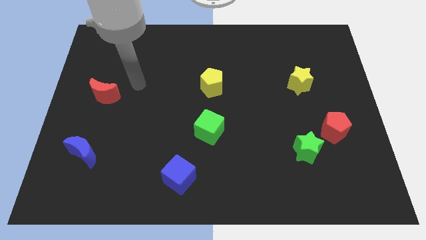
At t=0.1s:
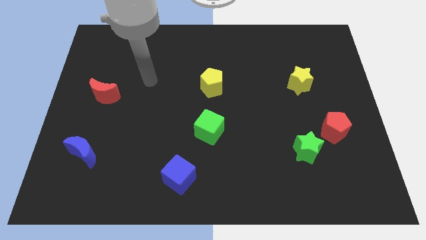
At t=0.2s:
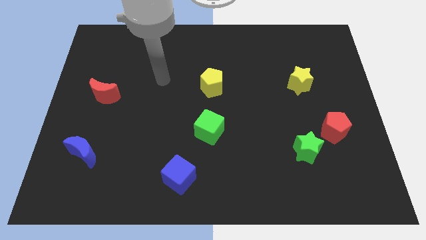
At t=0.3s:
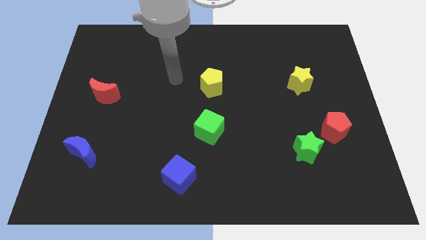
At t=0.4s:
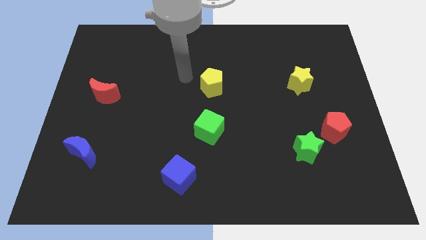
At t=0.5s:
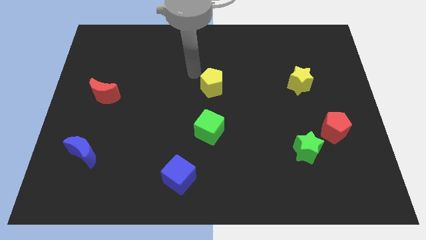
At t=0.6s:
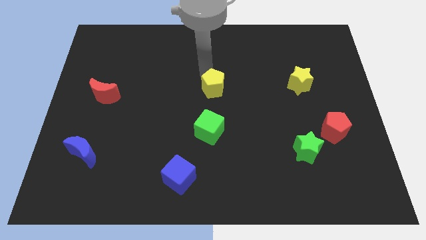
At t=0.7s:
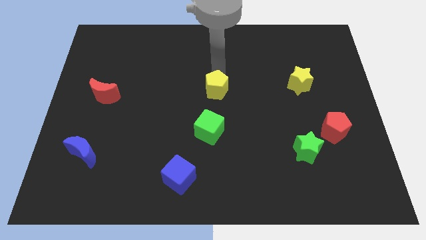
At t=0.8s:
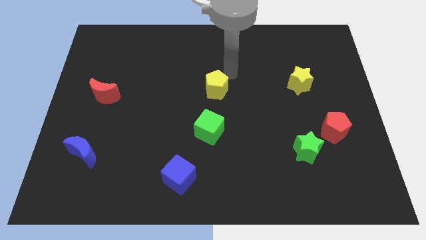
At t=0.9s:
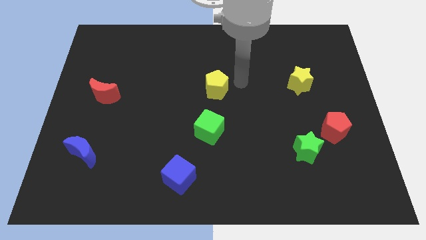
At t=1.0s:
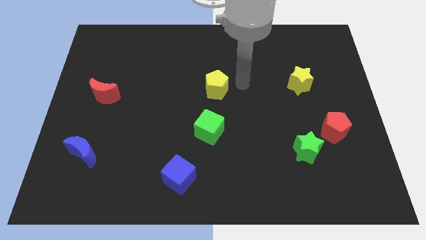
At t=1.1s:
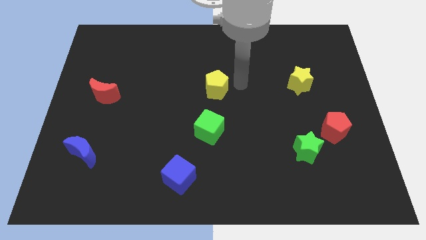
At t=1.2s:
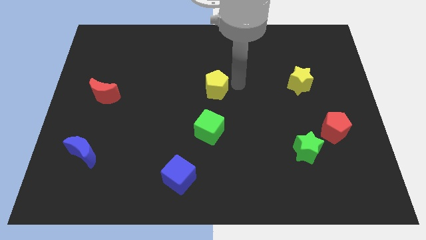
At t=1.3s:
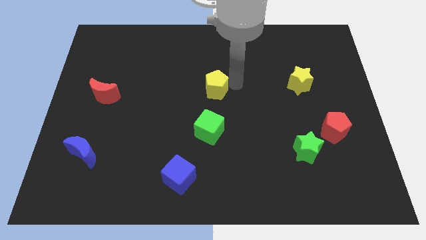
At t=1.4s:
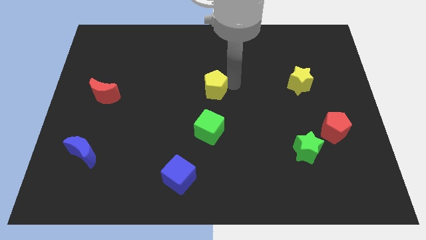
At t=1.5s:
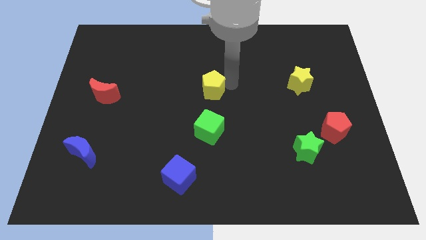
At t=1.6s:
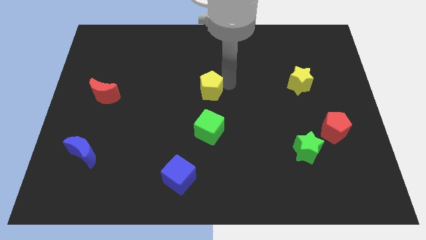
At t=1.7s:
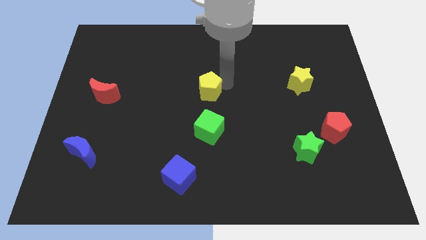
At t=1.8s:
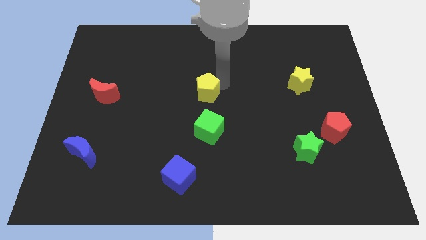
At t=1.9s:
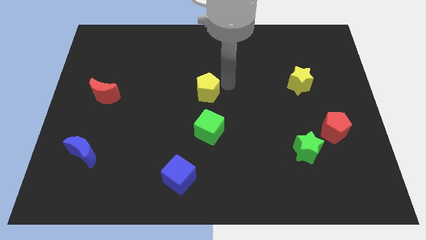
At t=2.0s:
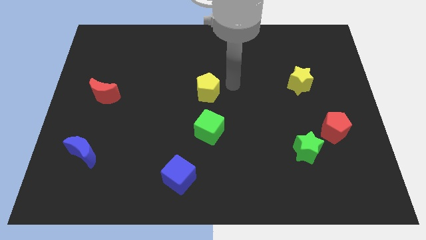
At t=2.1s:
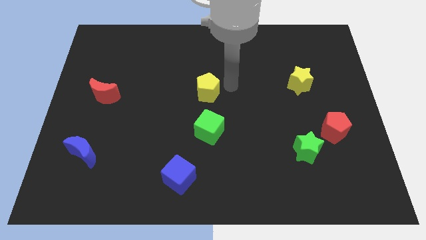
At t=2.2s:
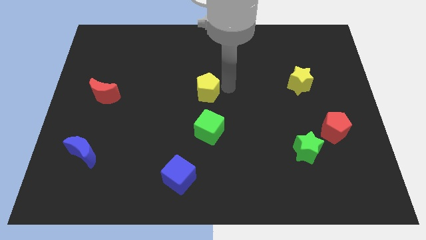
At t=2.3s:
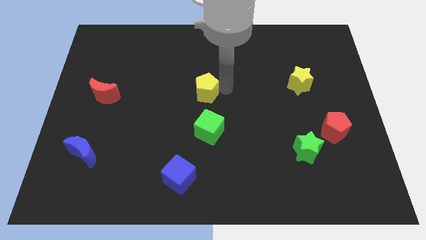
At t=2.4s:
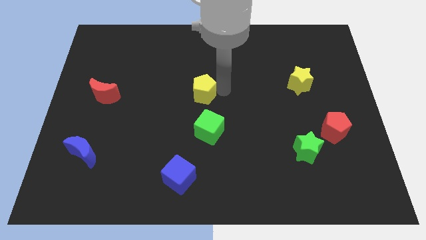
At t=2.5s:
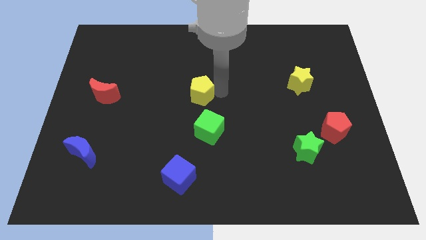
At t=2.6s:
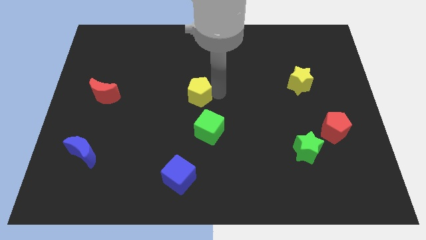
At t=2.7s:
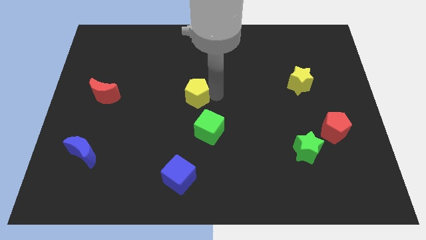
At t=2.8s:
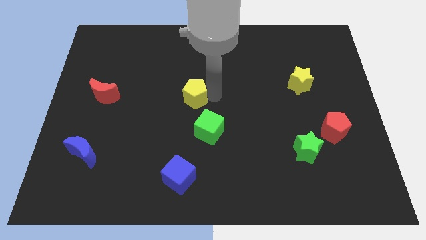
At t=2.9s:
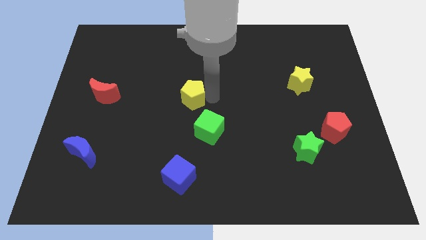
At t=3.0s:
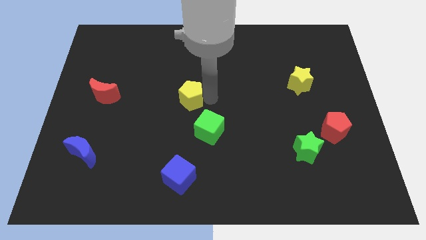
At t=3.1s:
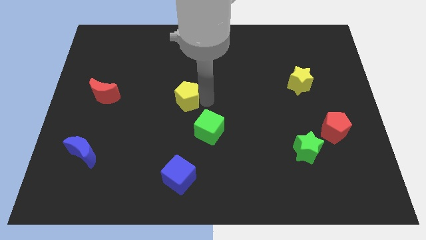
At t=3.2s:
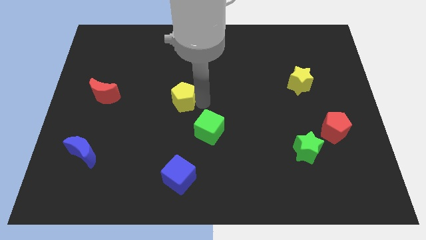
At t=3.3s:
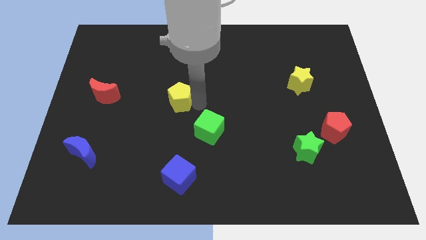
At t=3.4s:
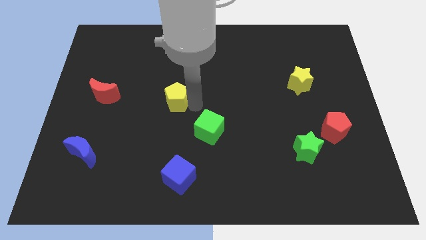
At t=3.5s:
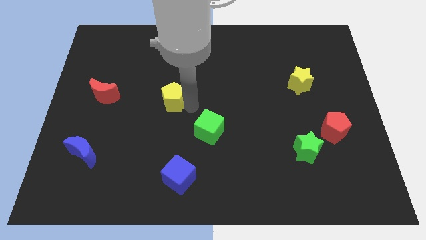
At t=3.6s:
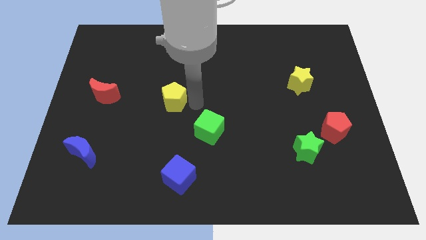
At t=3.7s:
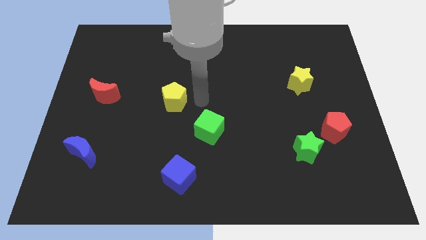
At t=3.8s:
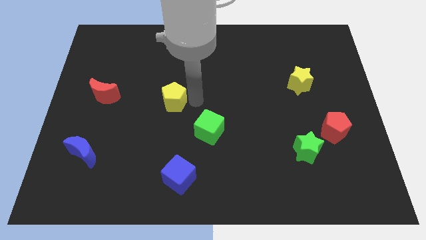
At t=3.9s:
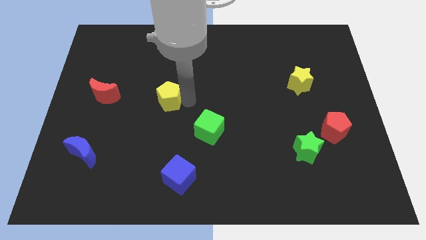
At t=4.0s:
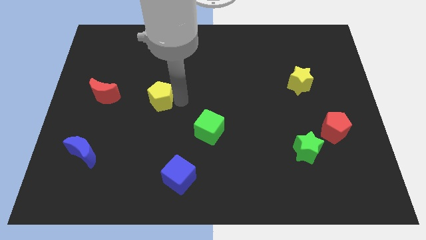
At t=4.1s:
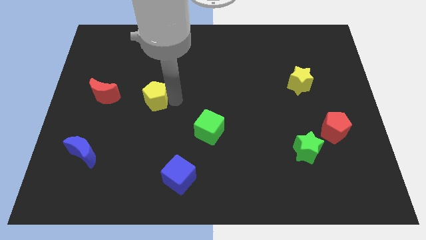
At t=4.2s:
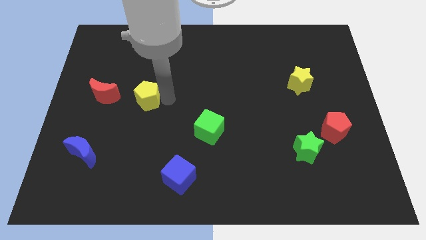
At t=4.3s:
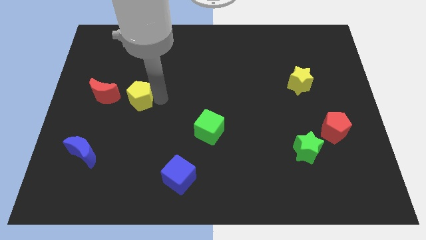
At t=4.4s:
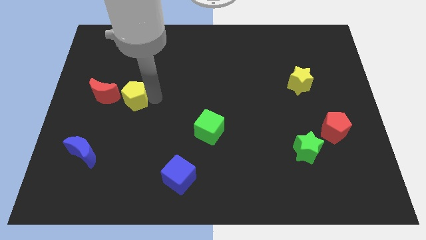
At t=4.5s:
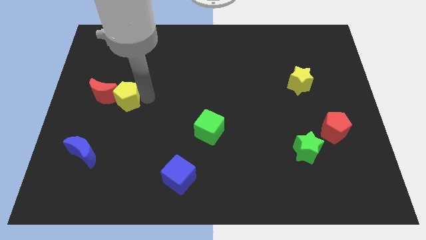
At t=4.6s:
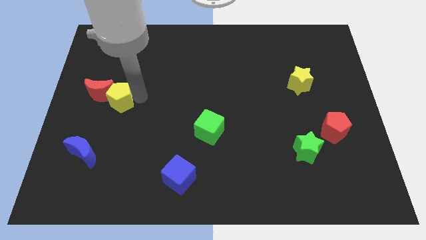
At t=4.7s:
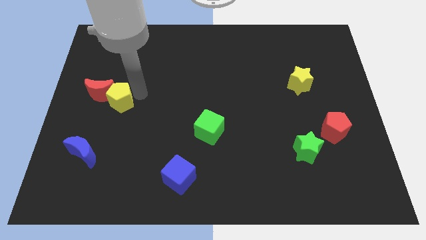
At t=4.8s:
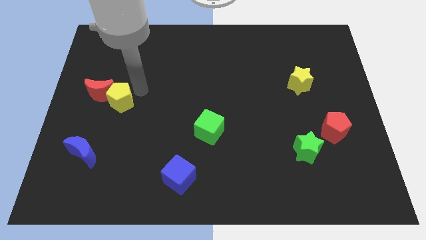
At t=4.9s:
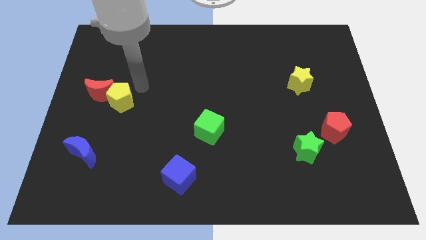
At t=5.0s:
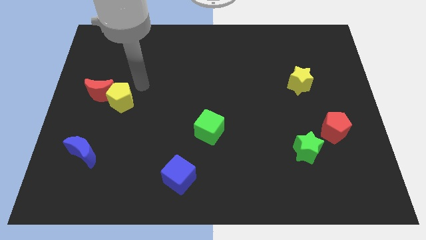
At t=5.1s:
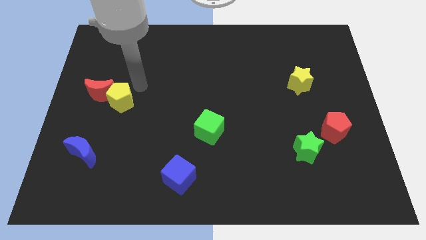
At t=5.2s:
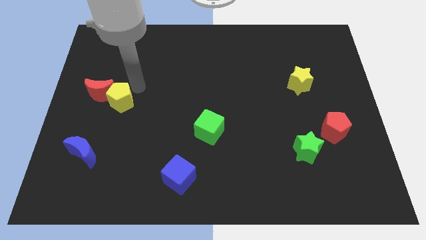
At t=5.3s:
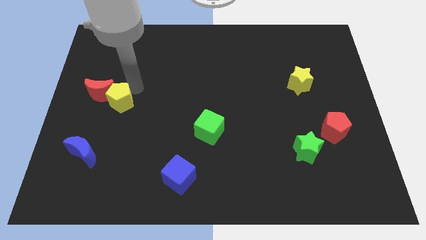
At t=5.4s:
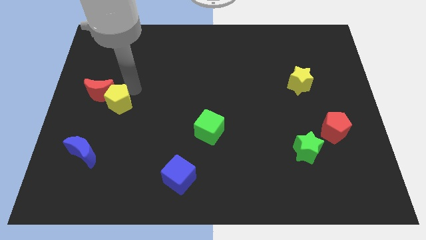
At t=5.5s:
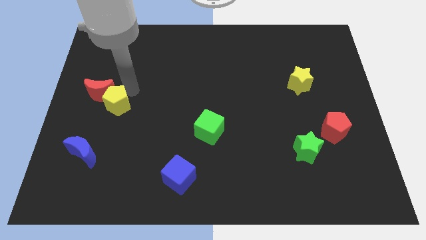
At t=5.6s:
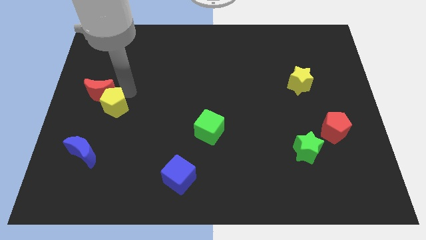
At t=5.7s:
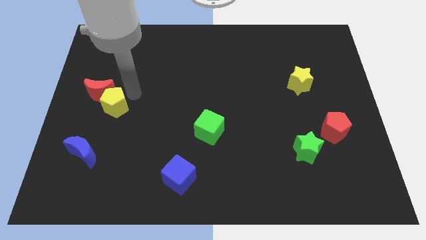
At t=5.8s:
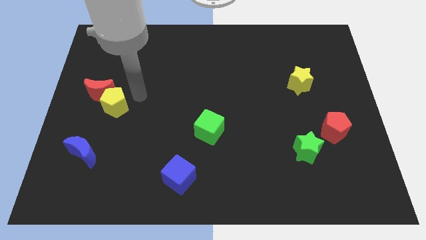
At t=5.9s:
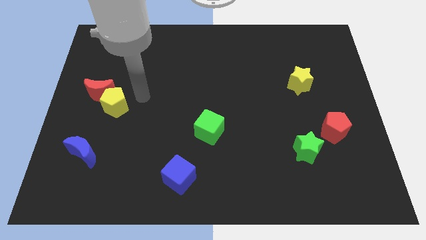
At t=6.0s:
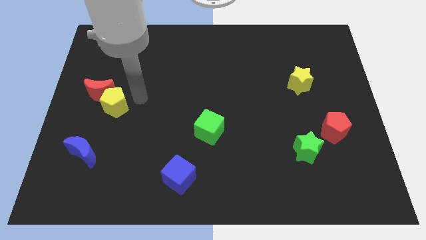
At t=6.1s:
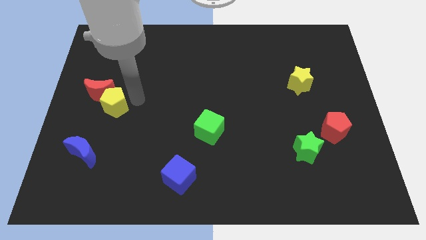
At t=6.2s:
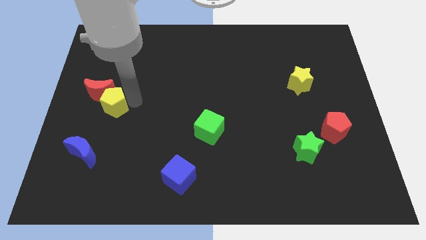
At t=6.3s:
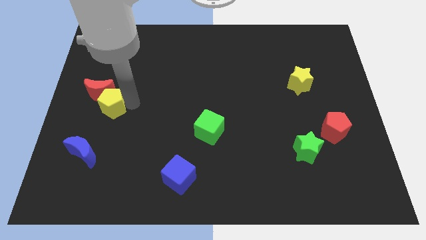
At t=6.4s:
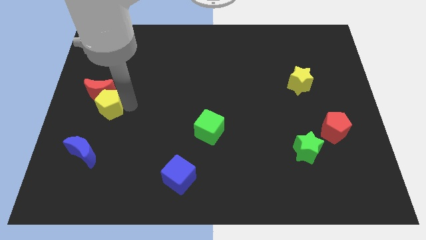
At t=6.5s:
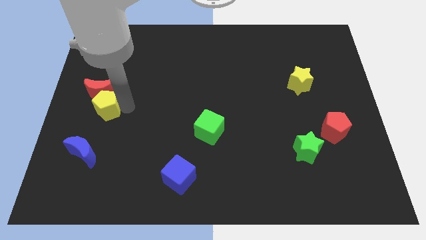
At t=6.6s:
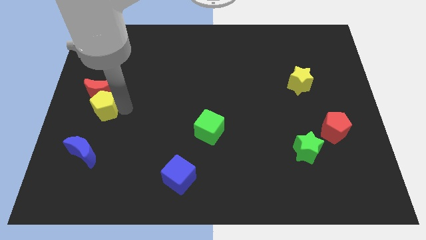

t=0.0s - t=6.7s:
put the yellow pentagon to the center left

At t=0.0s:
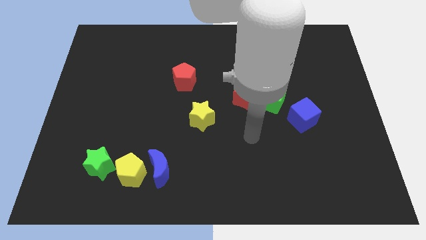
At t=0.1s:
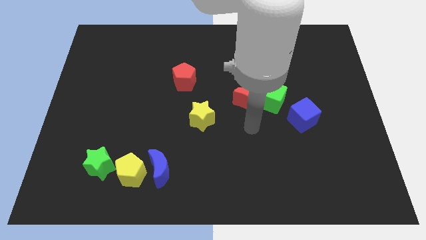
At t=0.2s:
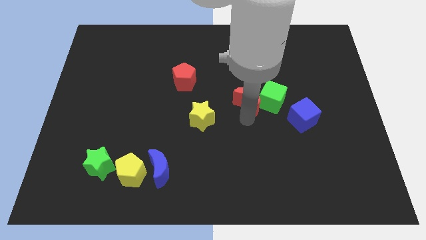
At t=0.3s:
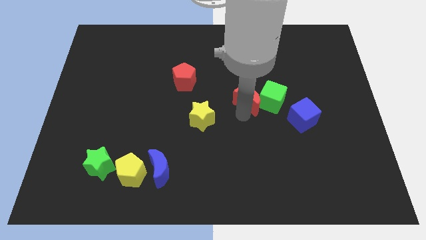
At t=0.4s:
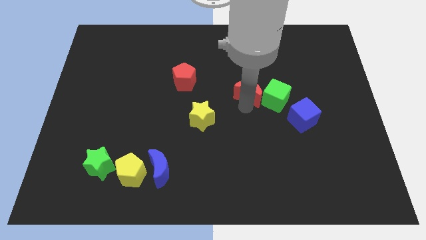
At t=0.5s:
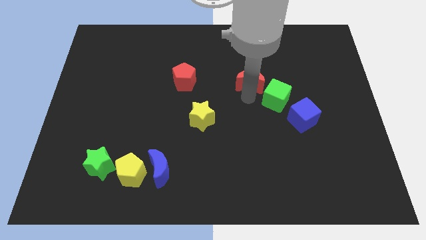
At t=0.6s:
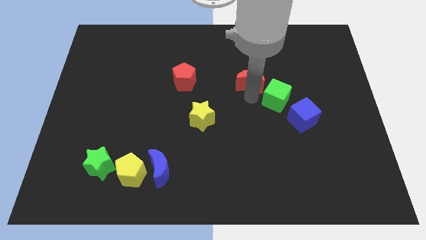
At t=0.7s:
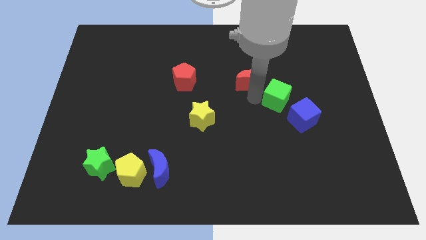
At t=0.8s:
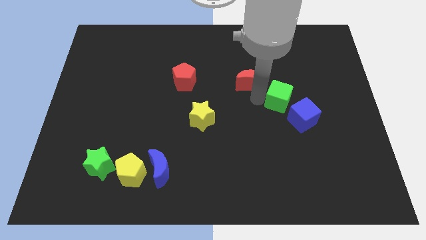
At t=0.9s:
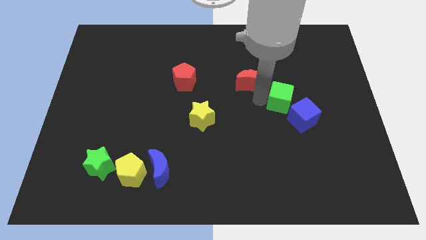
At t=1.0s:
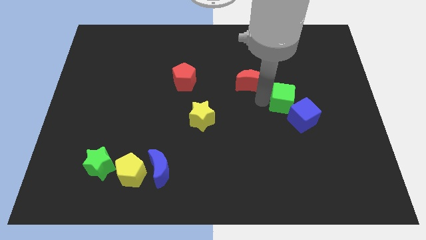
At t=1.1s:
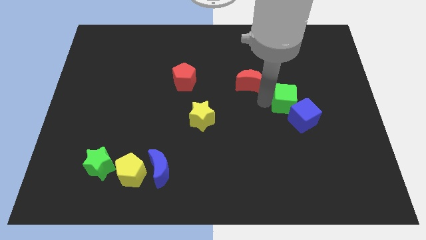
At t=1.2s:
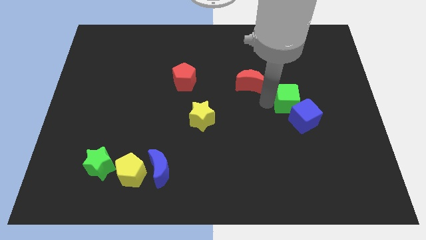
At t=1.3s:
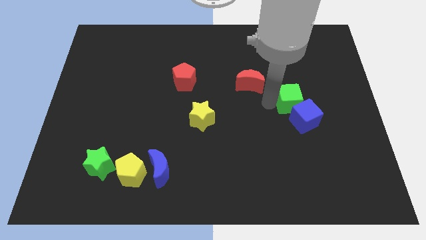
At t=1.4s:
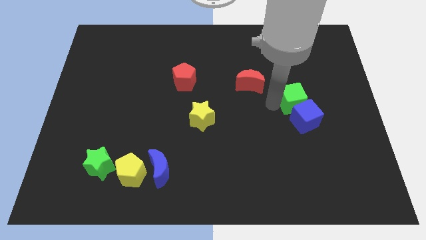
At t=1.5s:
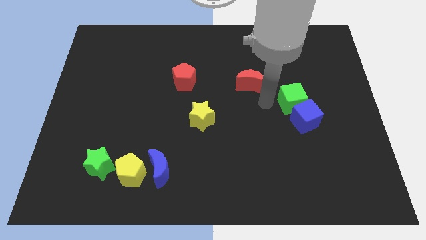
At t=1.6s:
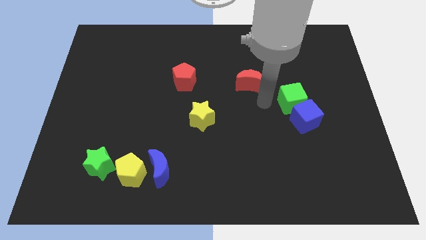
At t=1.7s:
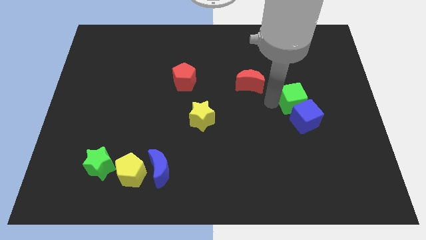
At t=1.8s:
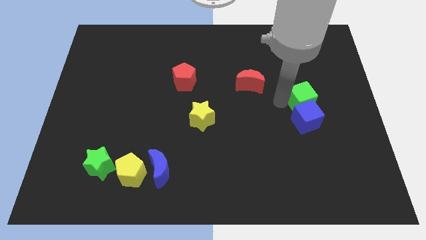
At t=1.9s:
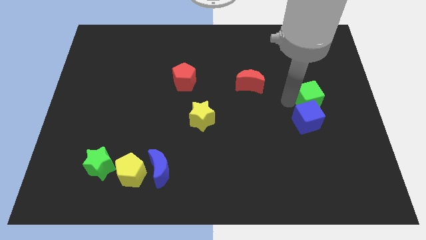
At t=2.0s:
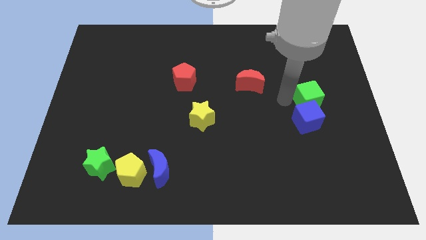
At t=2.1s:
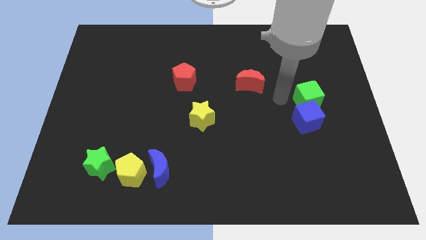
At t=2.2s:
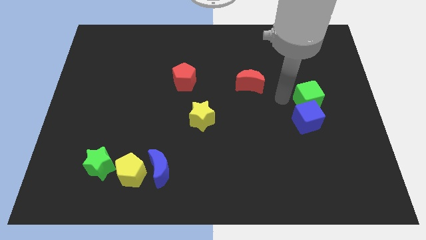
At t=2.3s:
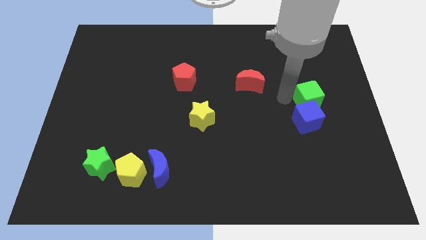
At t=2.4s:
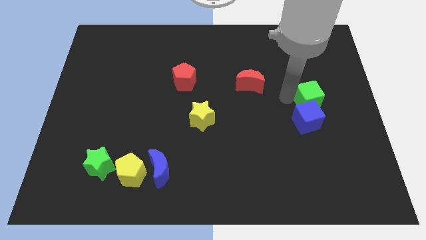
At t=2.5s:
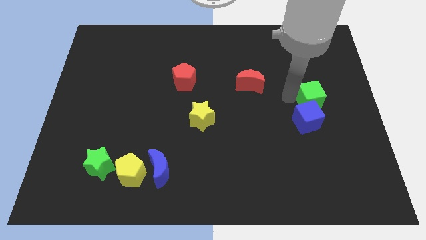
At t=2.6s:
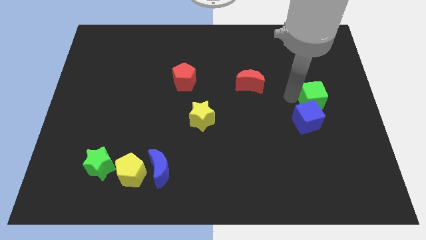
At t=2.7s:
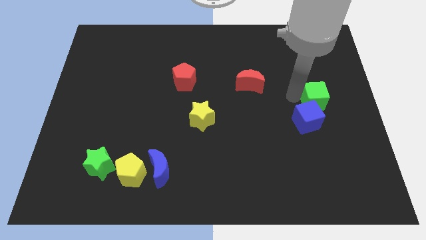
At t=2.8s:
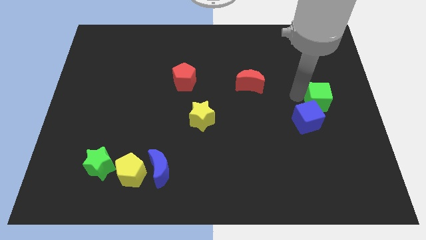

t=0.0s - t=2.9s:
slide the green cube to the right side
